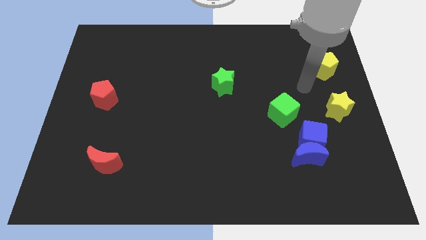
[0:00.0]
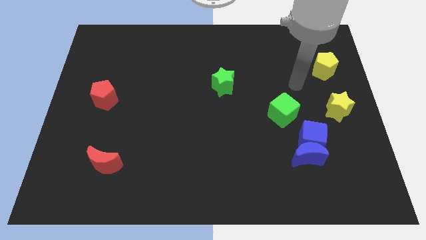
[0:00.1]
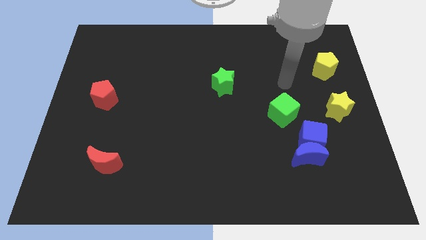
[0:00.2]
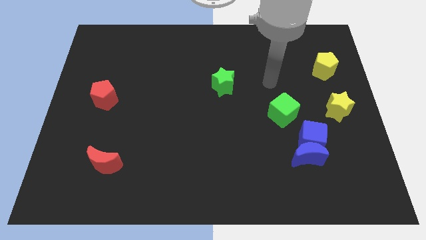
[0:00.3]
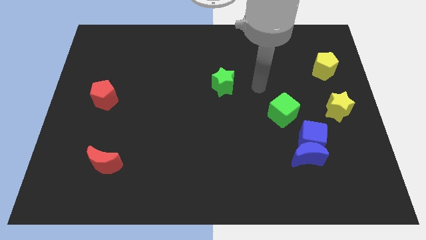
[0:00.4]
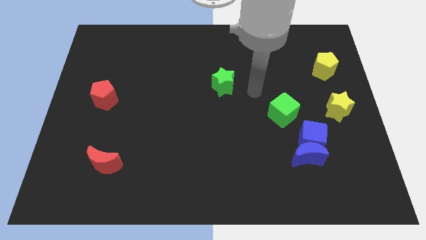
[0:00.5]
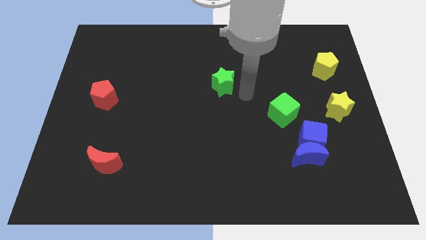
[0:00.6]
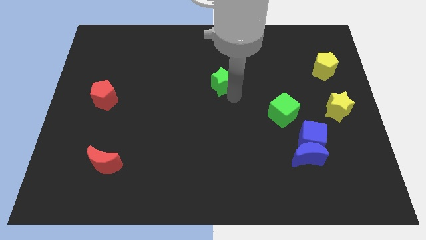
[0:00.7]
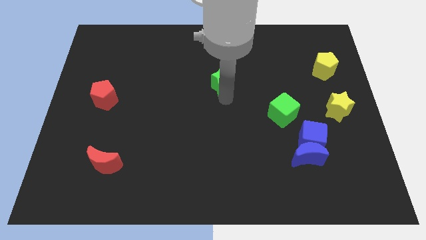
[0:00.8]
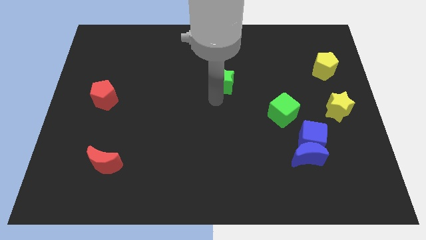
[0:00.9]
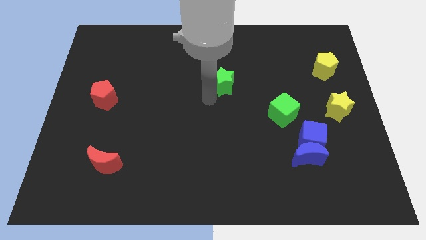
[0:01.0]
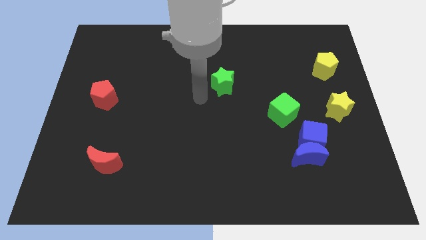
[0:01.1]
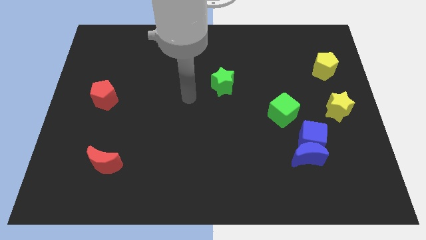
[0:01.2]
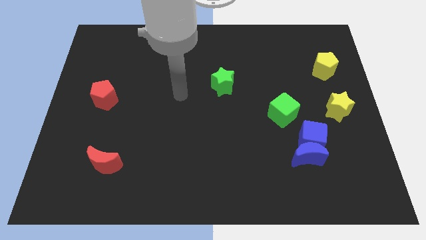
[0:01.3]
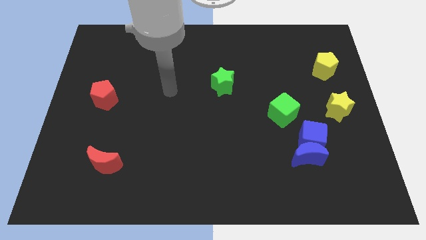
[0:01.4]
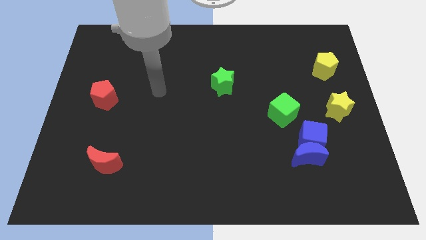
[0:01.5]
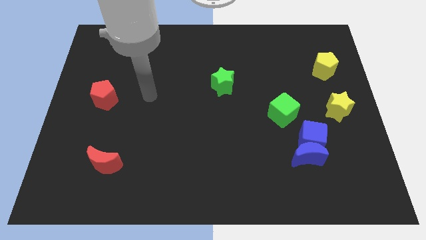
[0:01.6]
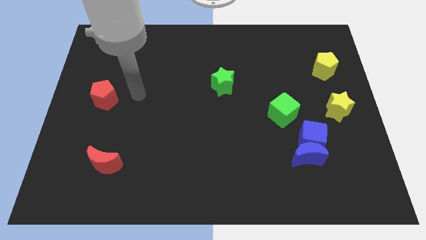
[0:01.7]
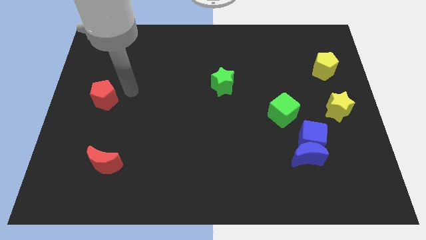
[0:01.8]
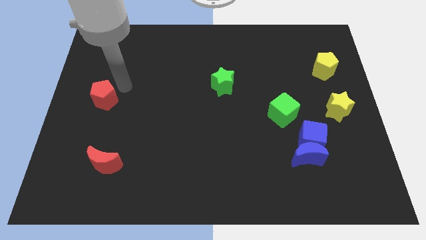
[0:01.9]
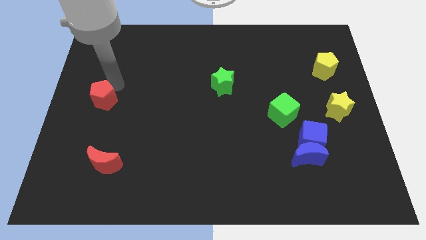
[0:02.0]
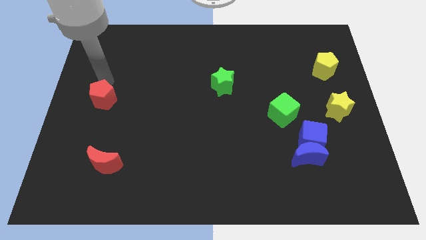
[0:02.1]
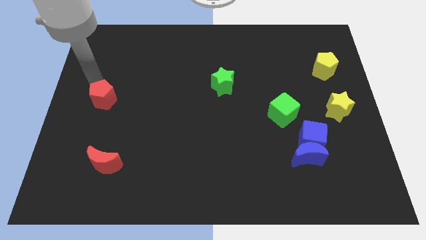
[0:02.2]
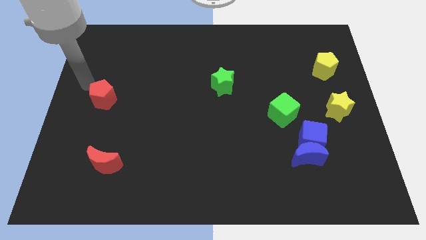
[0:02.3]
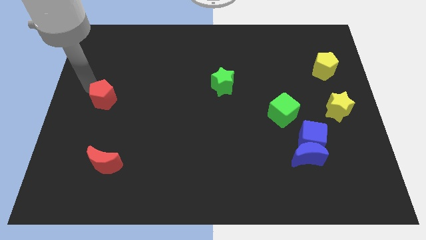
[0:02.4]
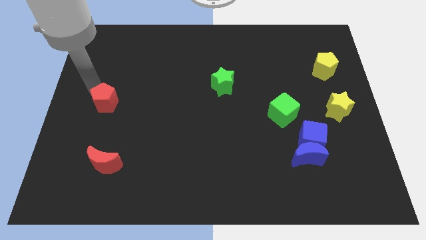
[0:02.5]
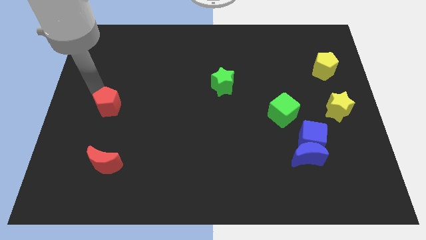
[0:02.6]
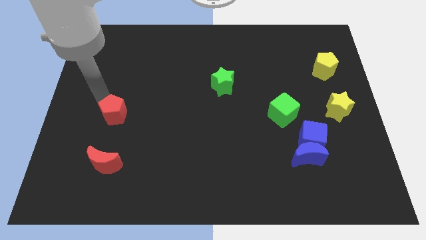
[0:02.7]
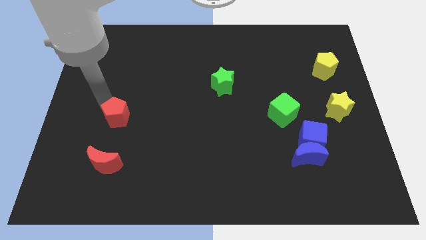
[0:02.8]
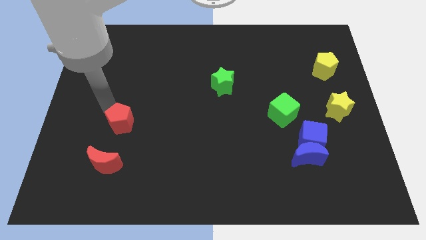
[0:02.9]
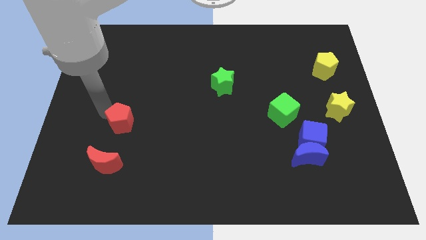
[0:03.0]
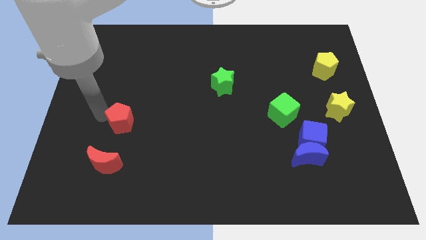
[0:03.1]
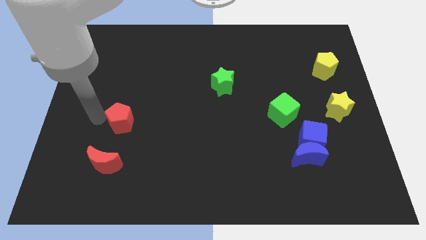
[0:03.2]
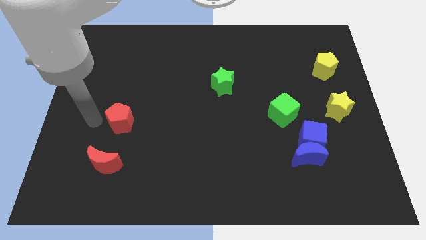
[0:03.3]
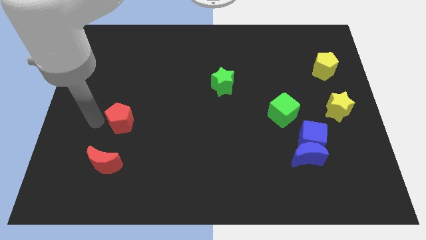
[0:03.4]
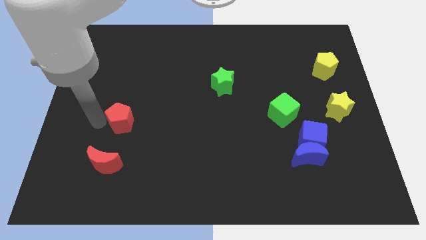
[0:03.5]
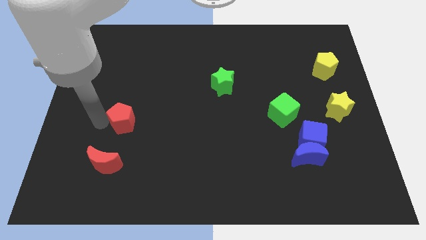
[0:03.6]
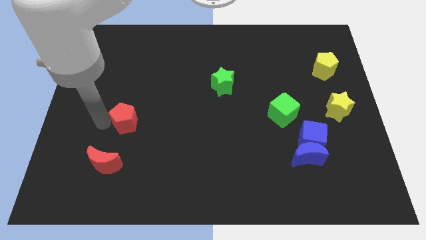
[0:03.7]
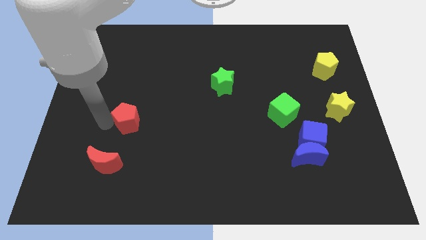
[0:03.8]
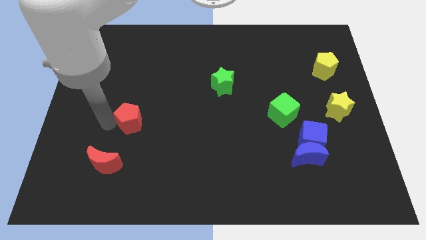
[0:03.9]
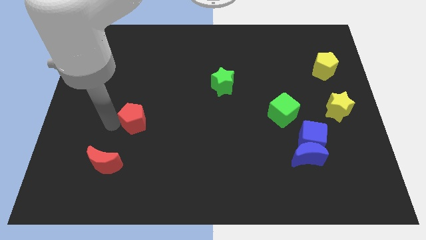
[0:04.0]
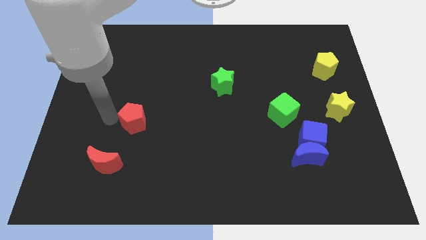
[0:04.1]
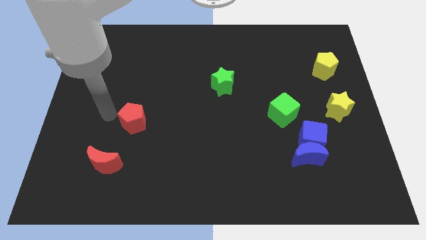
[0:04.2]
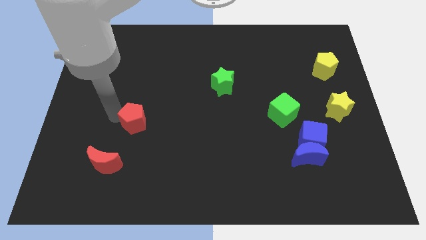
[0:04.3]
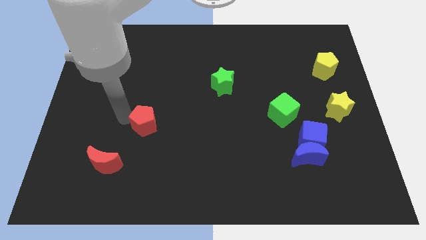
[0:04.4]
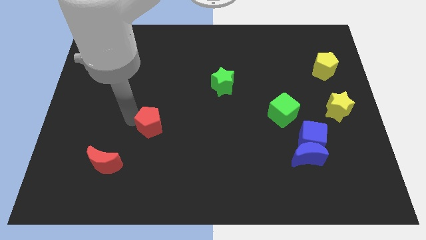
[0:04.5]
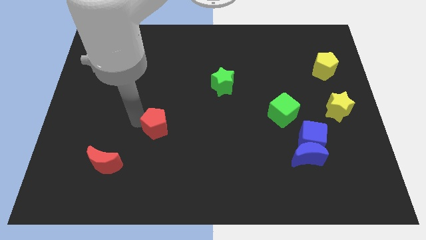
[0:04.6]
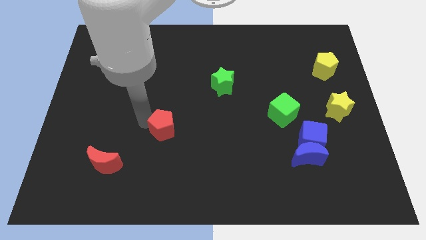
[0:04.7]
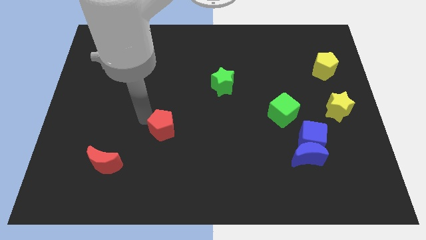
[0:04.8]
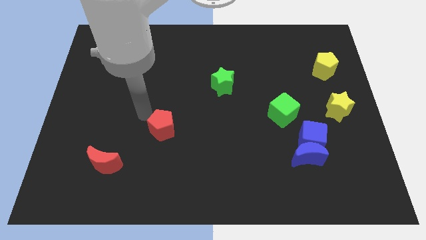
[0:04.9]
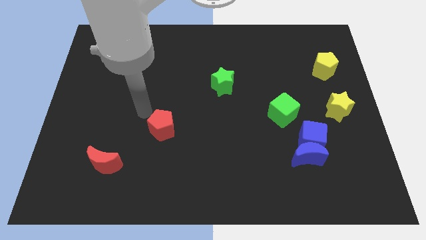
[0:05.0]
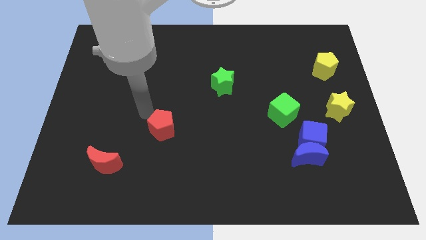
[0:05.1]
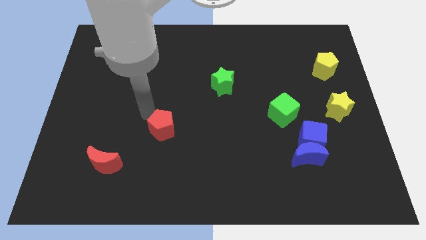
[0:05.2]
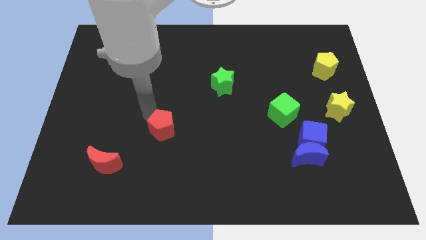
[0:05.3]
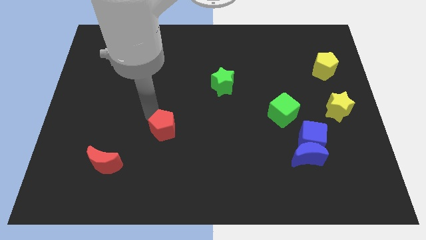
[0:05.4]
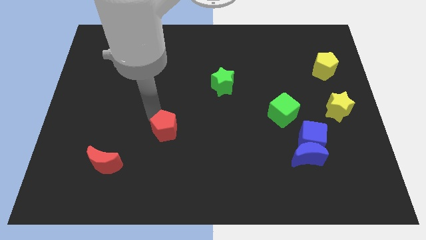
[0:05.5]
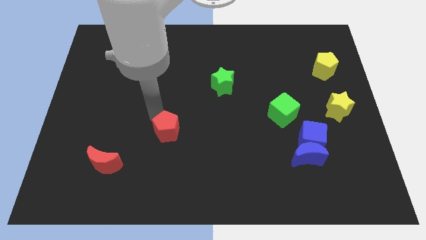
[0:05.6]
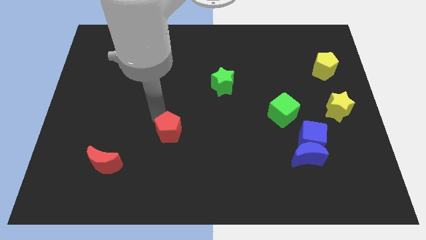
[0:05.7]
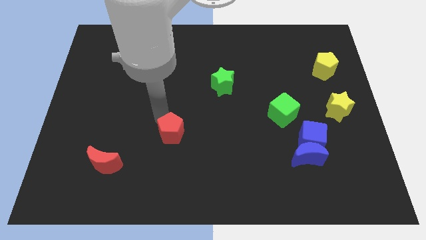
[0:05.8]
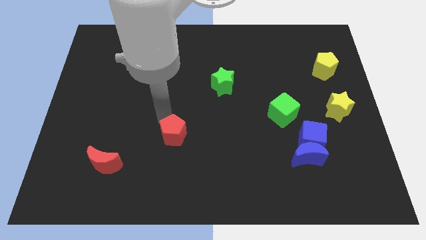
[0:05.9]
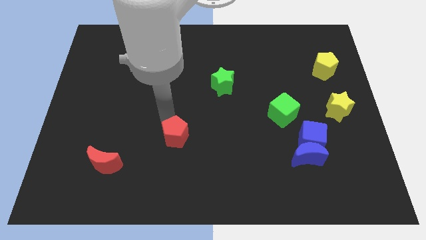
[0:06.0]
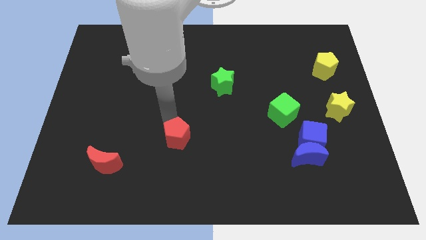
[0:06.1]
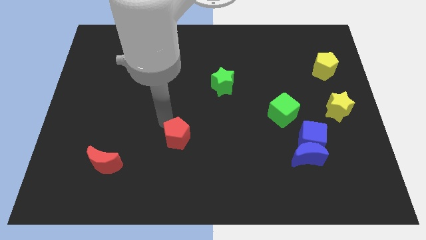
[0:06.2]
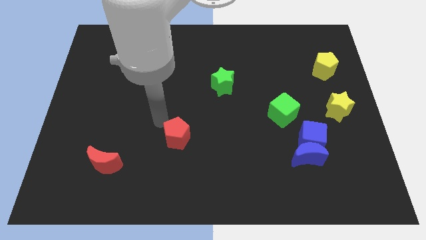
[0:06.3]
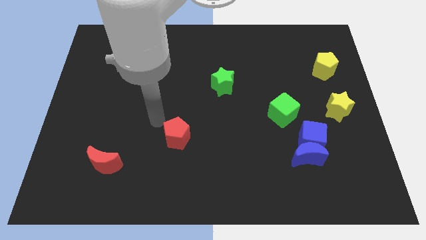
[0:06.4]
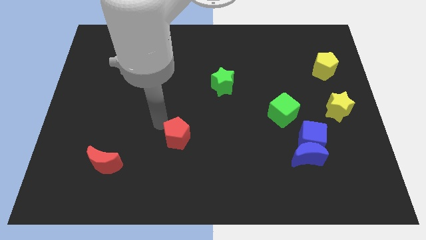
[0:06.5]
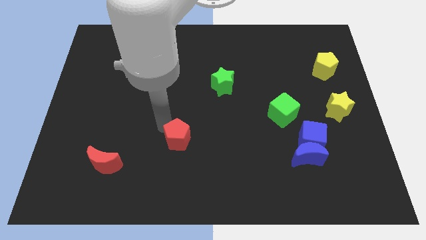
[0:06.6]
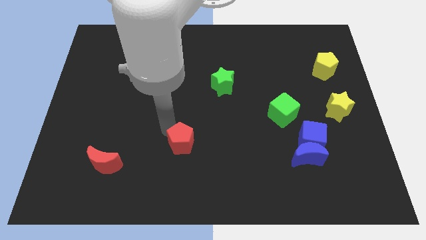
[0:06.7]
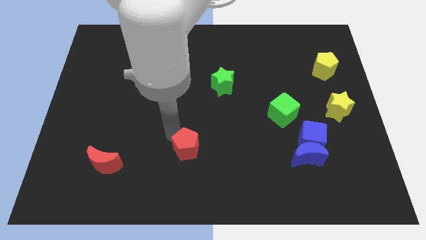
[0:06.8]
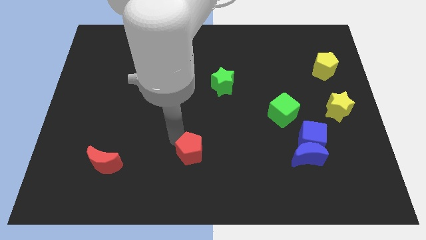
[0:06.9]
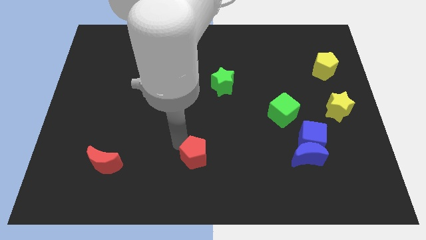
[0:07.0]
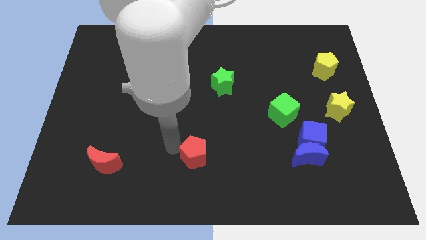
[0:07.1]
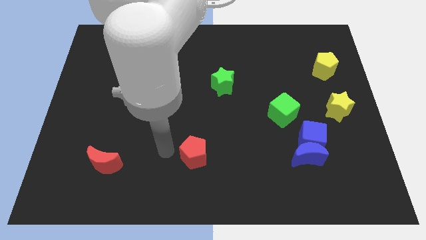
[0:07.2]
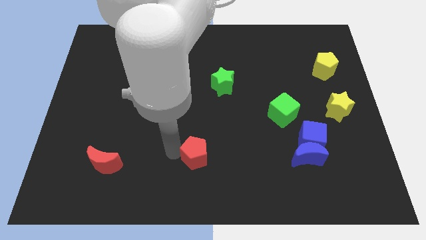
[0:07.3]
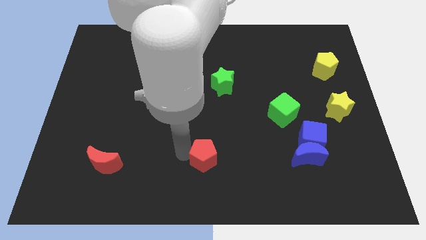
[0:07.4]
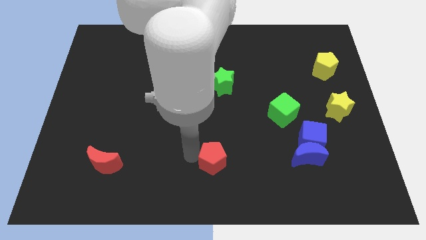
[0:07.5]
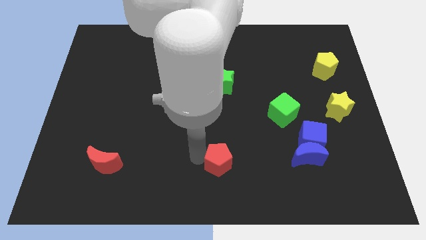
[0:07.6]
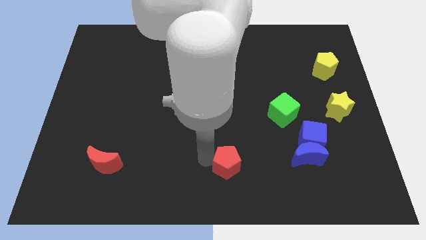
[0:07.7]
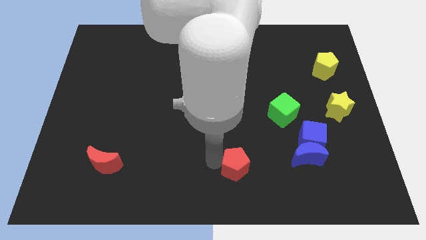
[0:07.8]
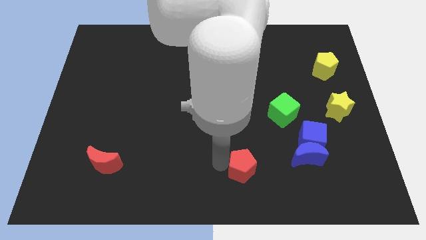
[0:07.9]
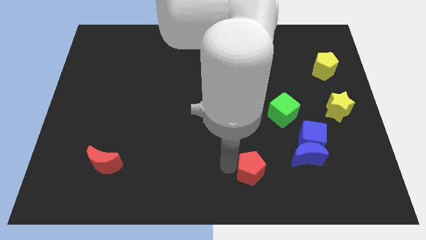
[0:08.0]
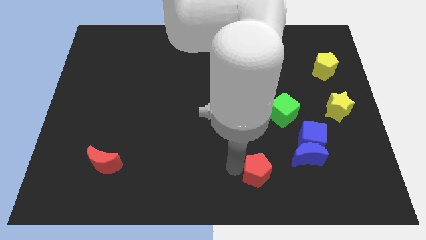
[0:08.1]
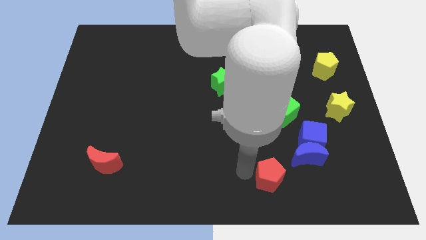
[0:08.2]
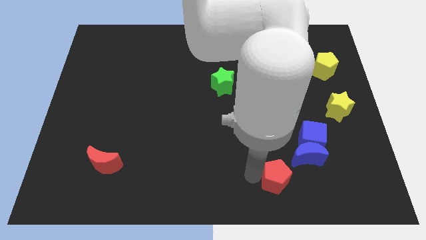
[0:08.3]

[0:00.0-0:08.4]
slide the red pentagon to the bottom left of the blue cube
